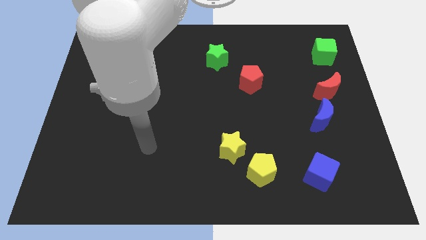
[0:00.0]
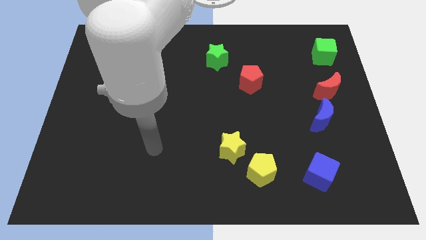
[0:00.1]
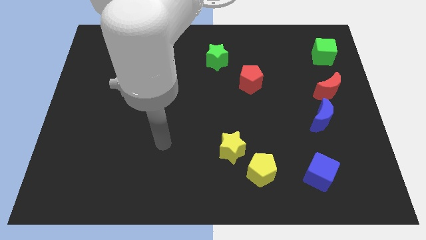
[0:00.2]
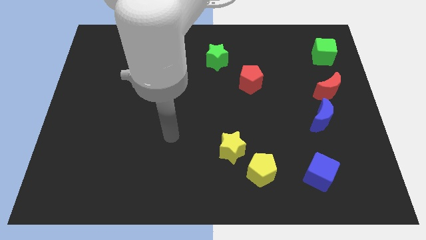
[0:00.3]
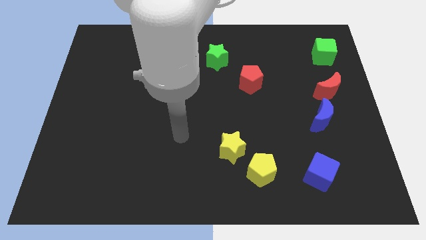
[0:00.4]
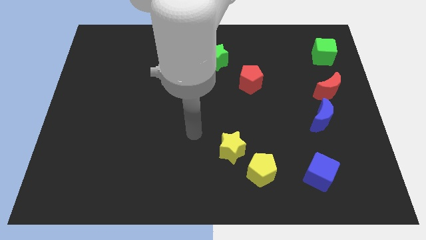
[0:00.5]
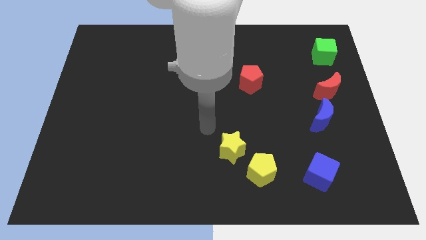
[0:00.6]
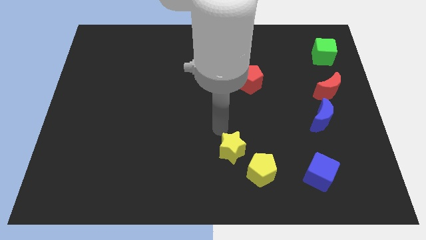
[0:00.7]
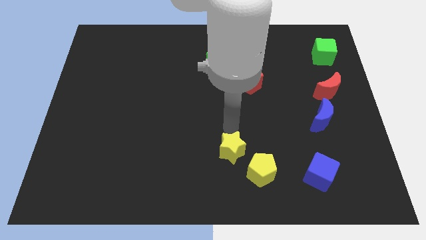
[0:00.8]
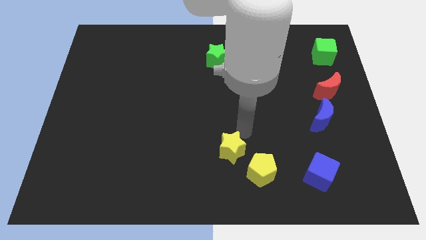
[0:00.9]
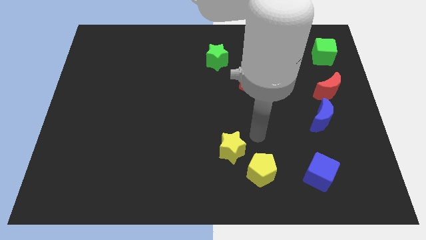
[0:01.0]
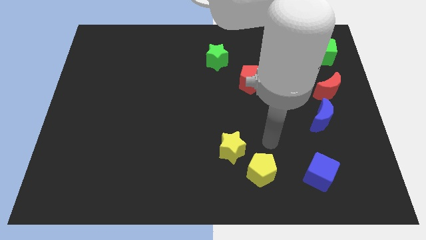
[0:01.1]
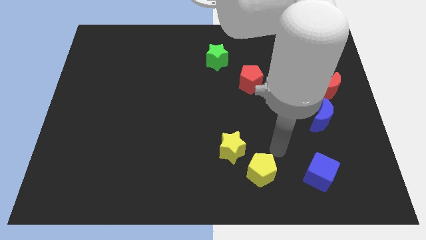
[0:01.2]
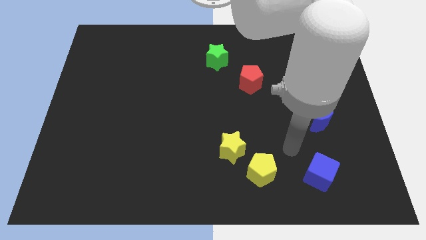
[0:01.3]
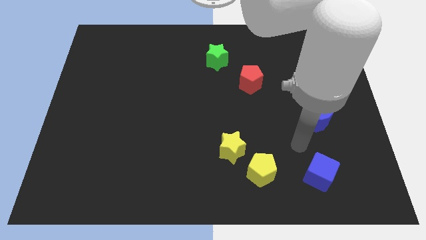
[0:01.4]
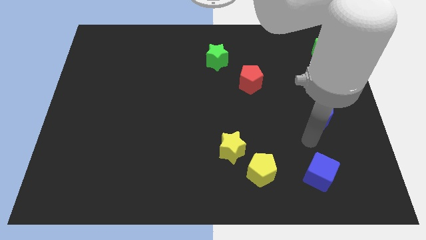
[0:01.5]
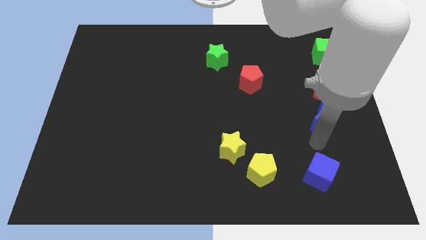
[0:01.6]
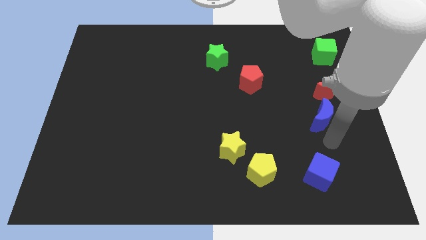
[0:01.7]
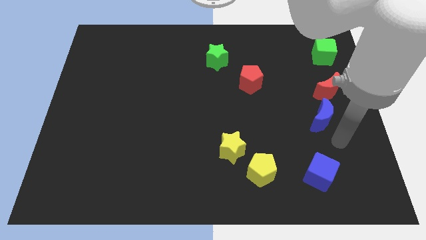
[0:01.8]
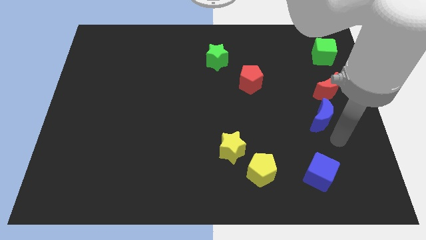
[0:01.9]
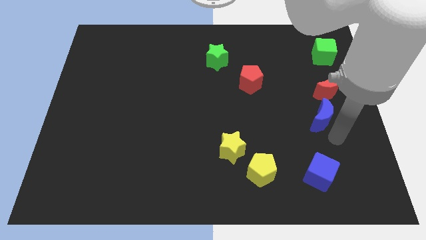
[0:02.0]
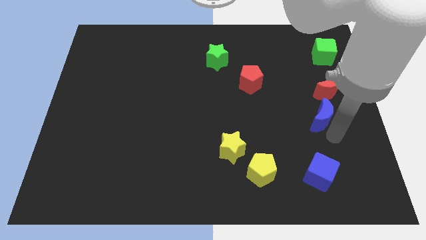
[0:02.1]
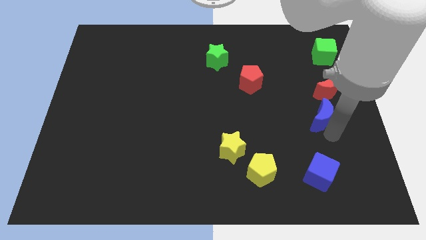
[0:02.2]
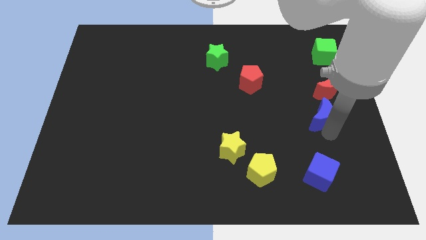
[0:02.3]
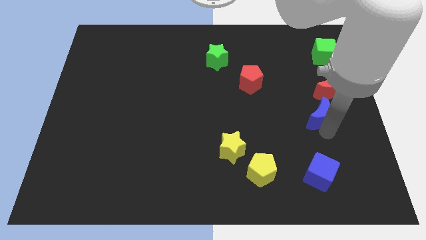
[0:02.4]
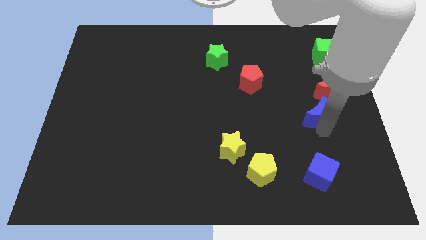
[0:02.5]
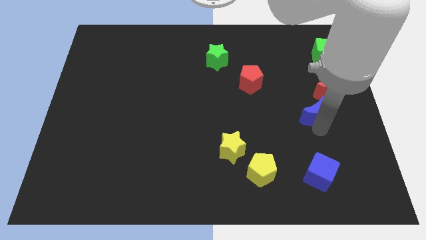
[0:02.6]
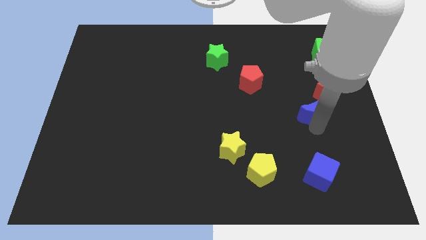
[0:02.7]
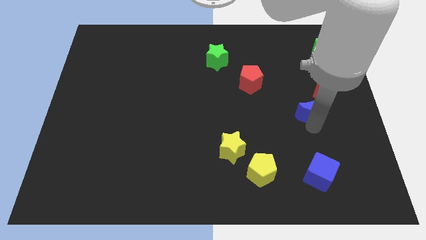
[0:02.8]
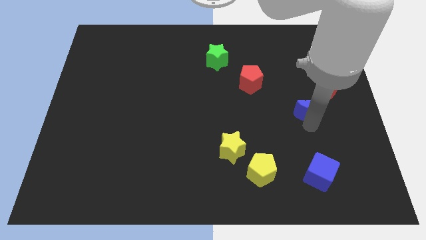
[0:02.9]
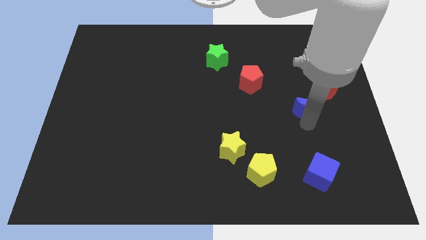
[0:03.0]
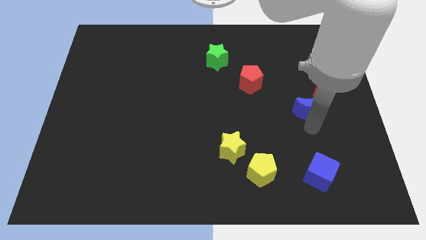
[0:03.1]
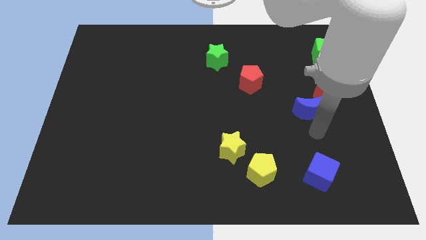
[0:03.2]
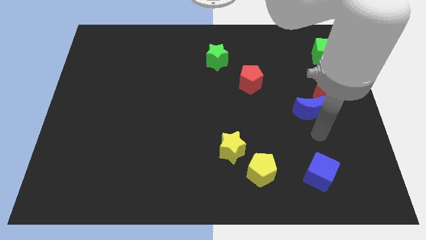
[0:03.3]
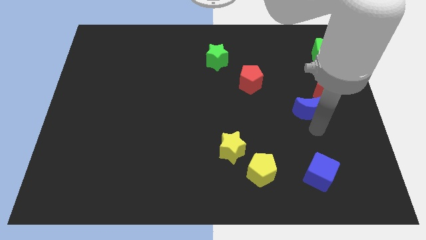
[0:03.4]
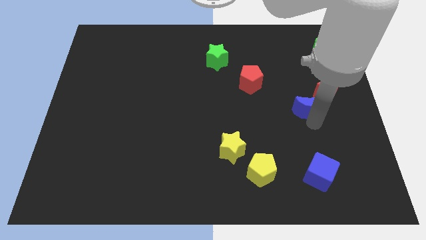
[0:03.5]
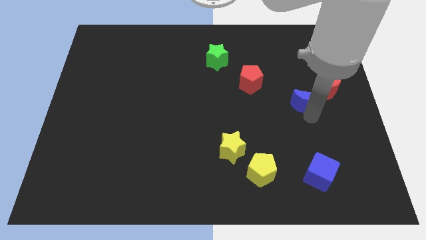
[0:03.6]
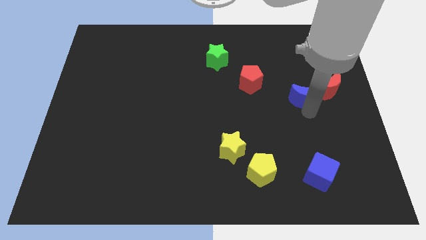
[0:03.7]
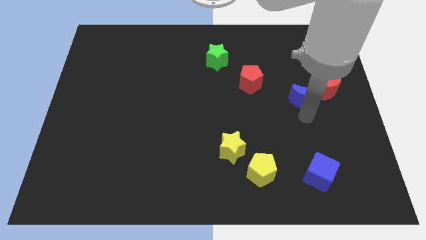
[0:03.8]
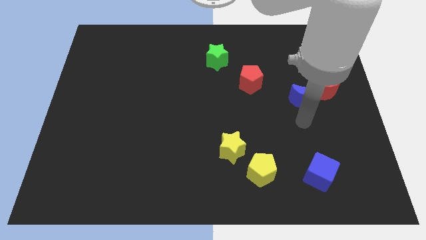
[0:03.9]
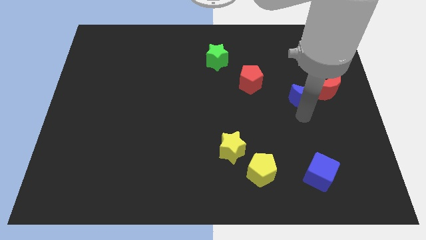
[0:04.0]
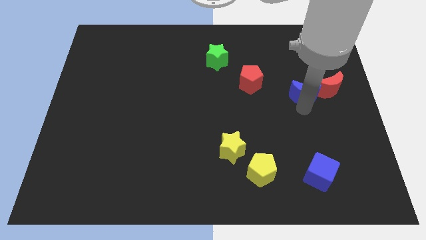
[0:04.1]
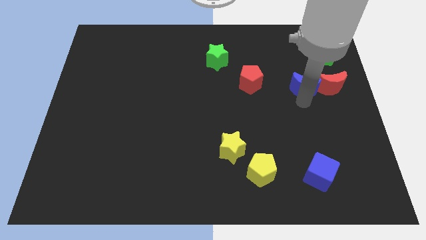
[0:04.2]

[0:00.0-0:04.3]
push the blue moon slightly upwards

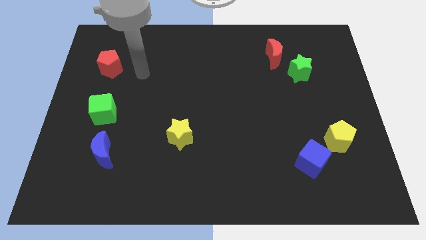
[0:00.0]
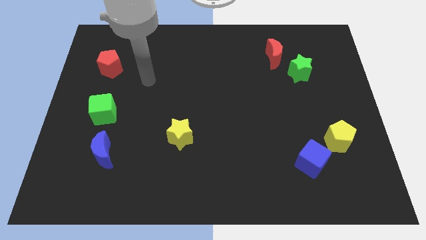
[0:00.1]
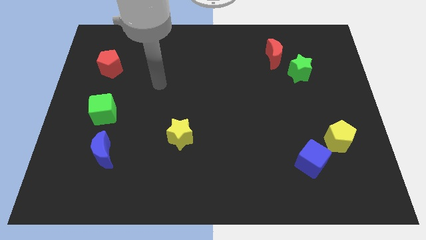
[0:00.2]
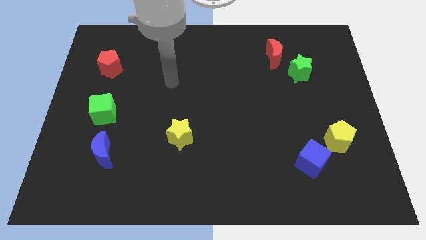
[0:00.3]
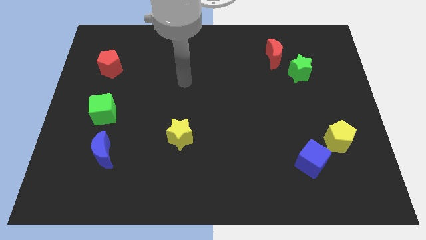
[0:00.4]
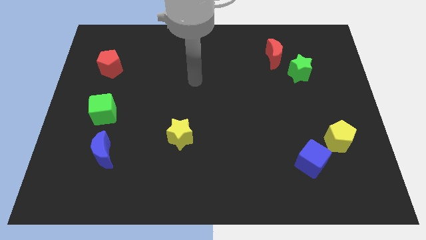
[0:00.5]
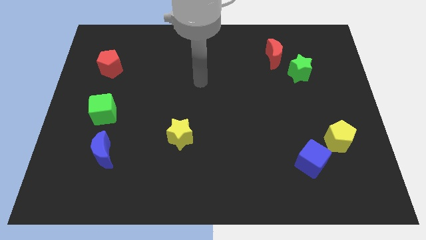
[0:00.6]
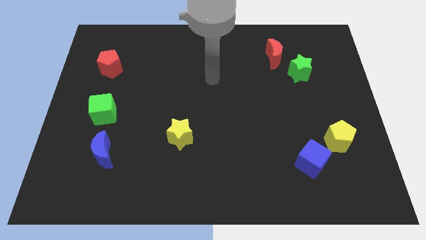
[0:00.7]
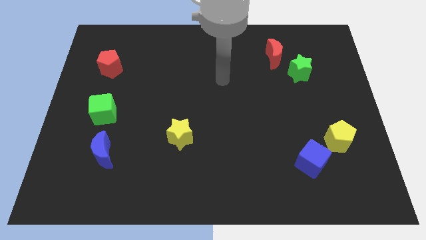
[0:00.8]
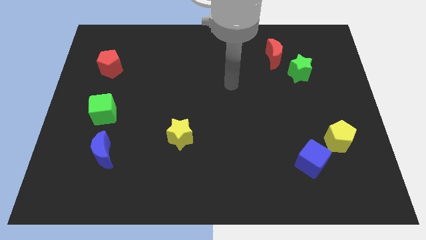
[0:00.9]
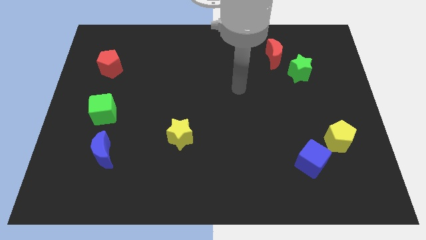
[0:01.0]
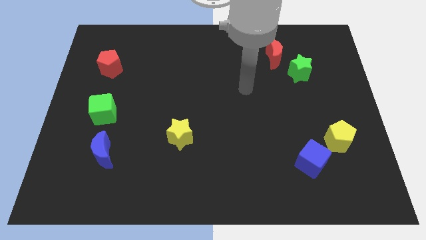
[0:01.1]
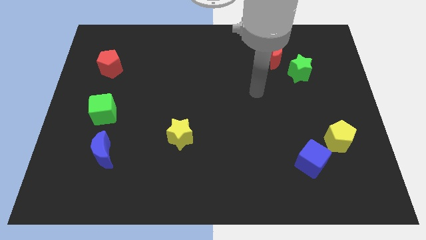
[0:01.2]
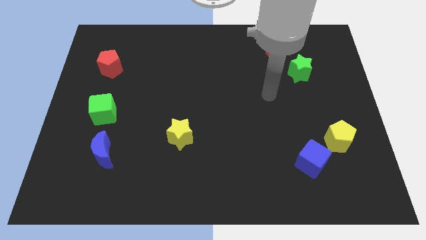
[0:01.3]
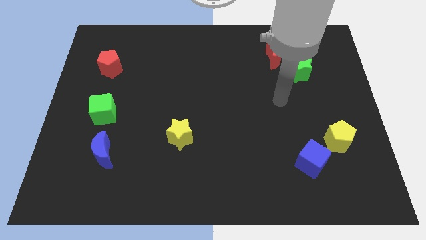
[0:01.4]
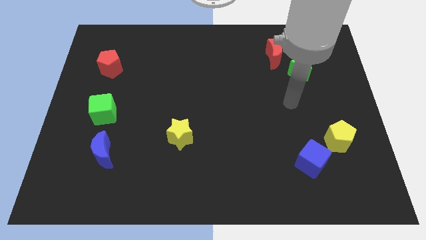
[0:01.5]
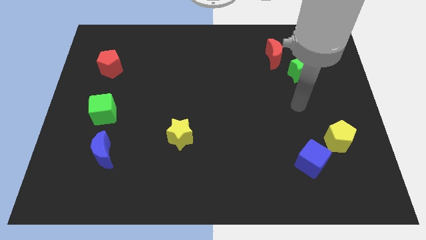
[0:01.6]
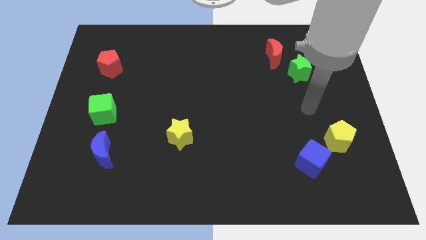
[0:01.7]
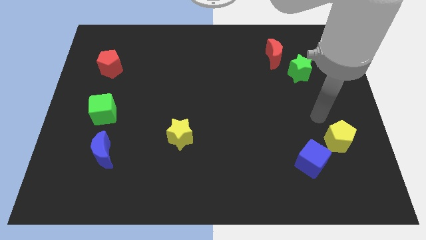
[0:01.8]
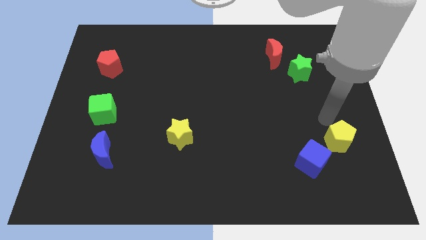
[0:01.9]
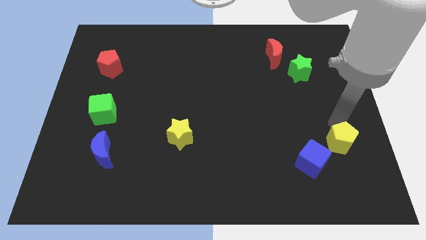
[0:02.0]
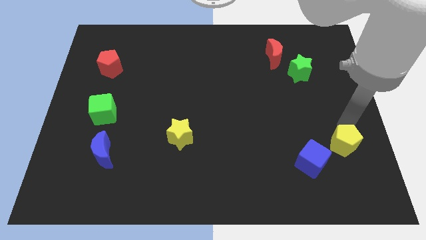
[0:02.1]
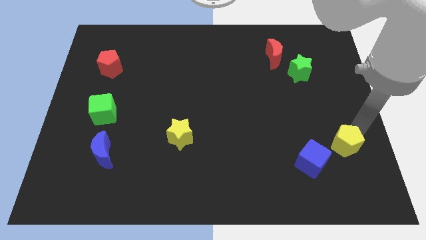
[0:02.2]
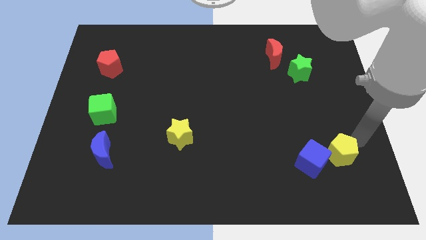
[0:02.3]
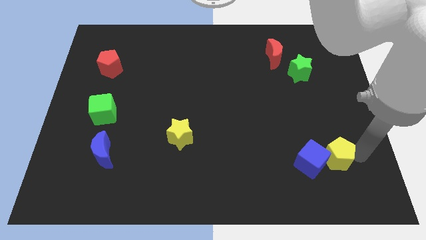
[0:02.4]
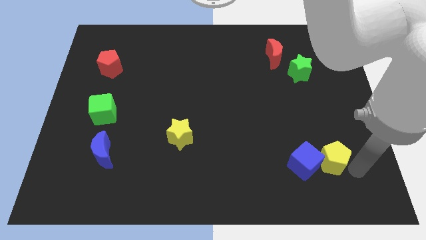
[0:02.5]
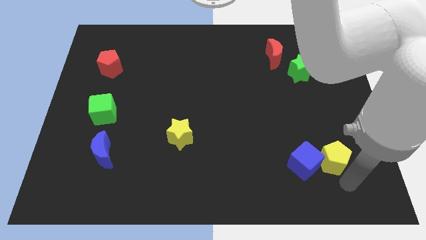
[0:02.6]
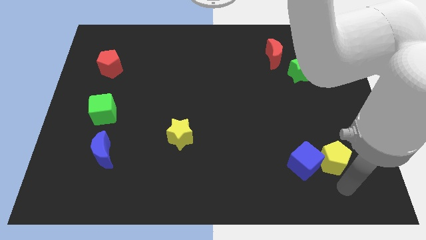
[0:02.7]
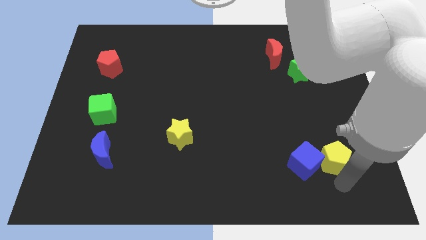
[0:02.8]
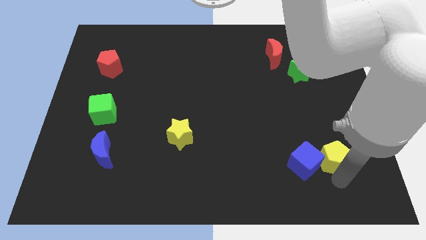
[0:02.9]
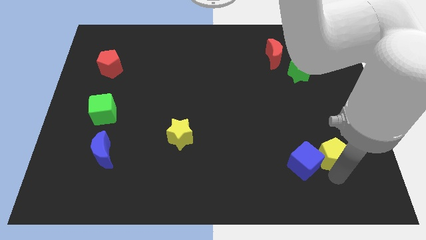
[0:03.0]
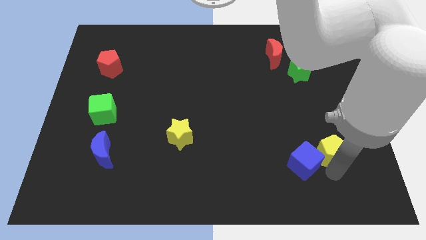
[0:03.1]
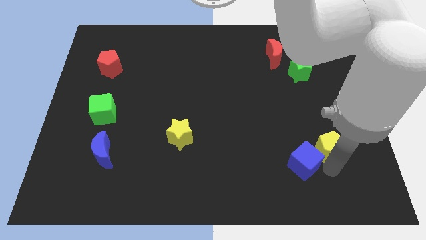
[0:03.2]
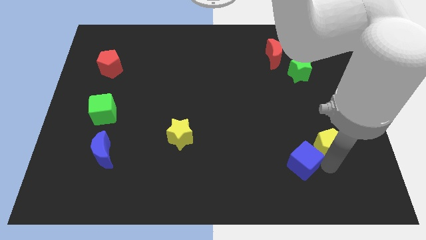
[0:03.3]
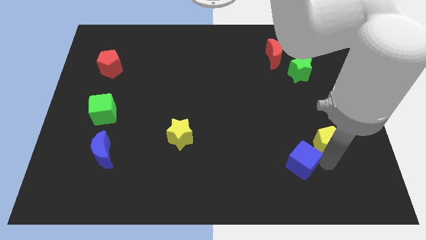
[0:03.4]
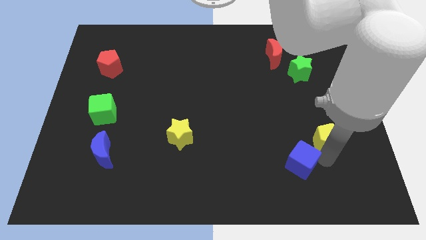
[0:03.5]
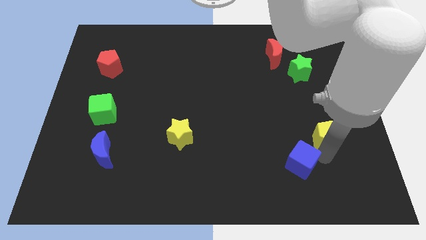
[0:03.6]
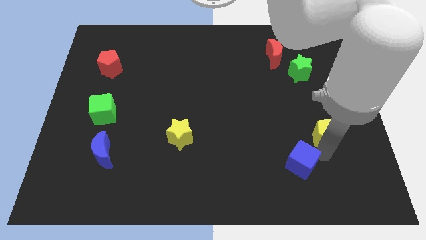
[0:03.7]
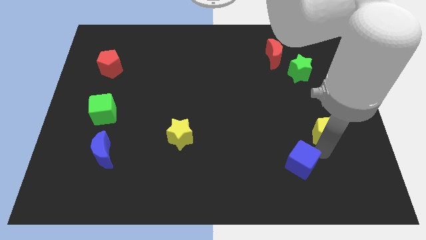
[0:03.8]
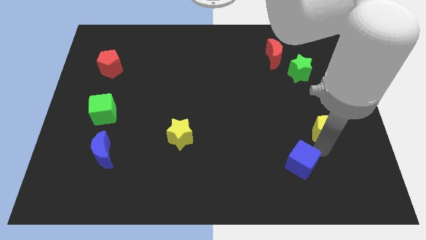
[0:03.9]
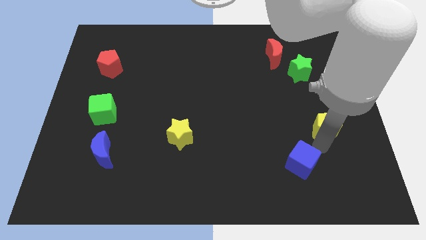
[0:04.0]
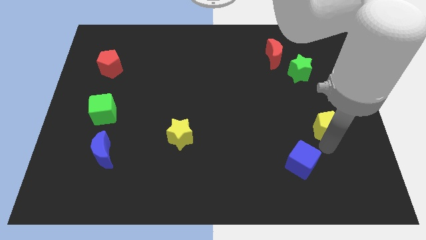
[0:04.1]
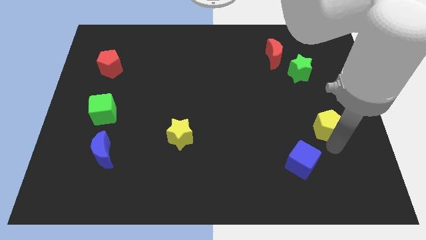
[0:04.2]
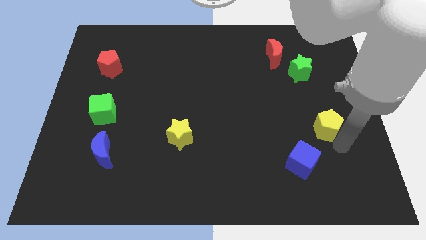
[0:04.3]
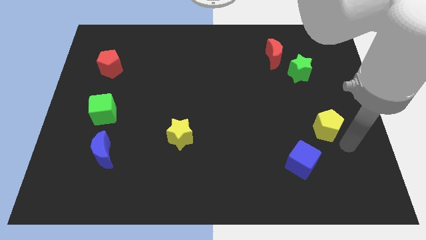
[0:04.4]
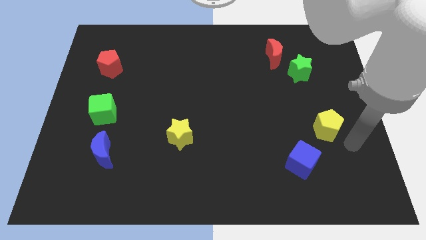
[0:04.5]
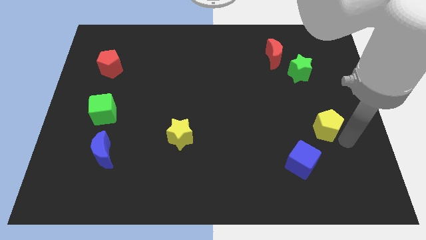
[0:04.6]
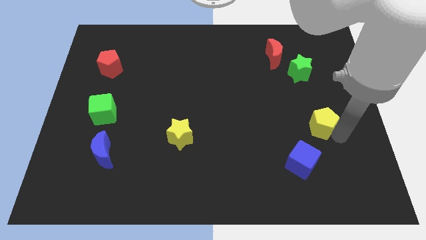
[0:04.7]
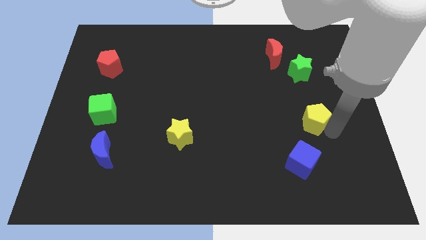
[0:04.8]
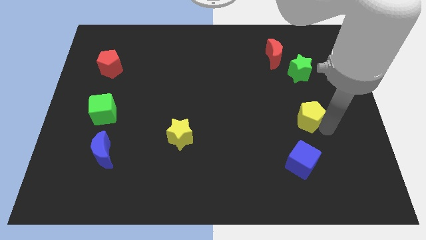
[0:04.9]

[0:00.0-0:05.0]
slightly push the yellow pentagon diagonally up and left
